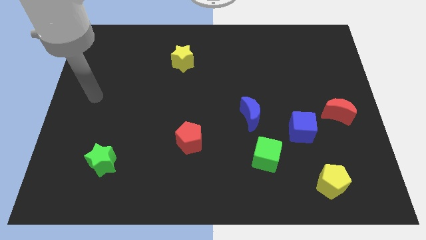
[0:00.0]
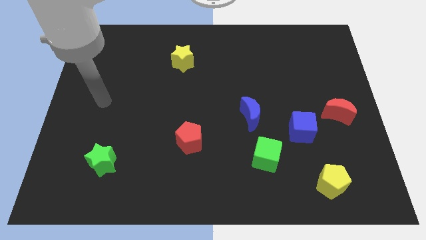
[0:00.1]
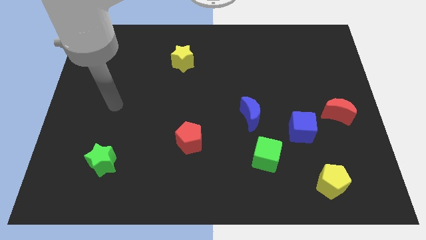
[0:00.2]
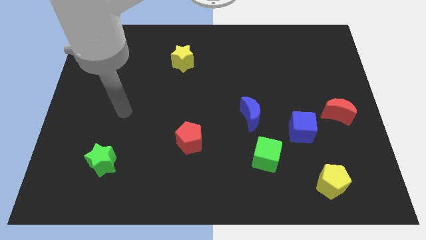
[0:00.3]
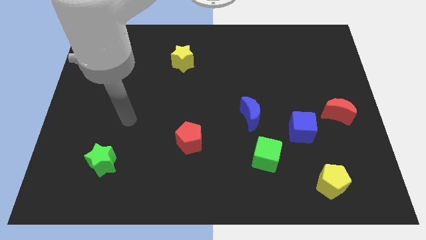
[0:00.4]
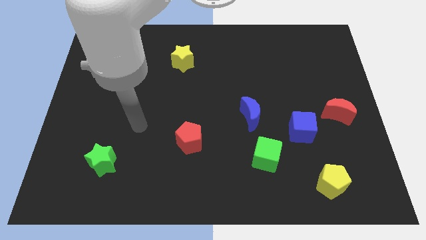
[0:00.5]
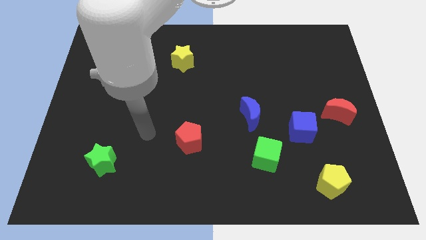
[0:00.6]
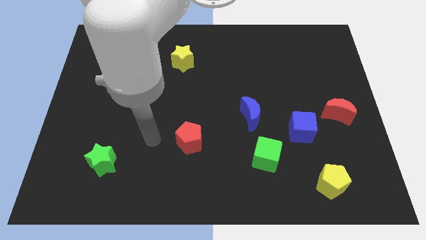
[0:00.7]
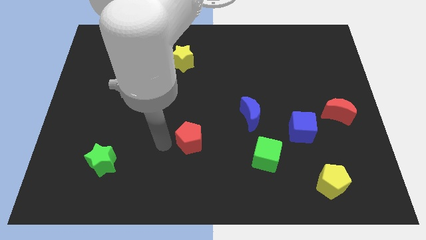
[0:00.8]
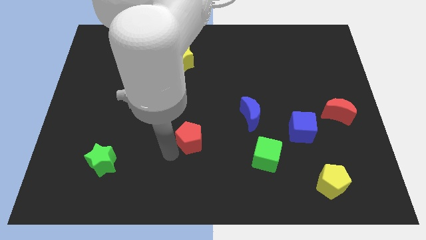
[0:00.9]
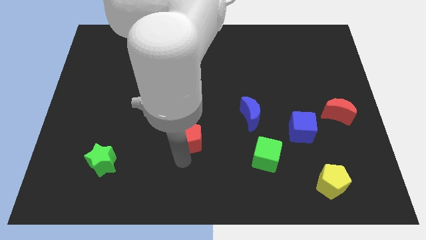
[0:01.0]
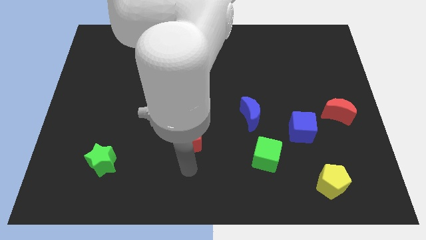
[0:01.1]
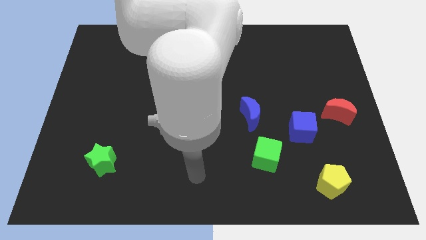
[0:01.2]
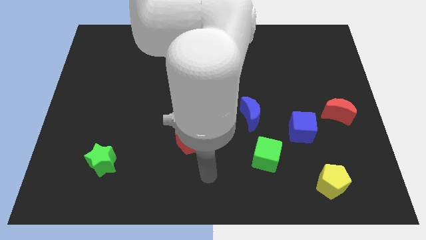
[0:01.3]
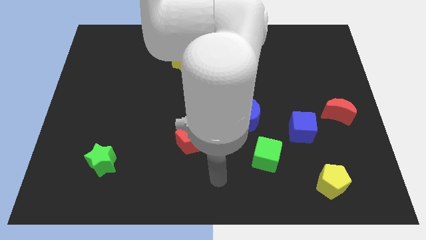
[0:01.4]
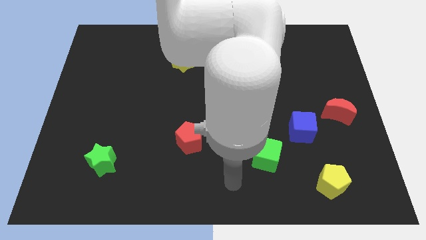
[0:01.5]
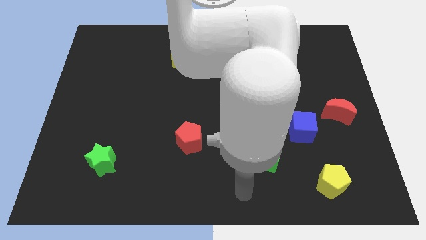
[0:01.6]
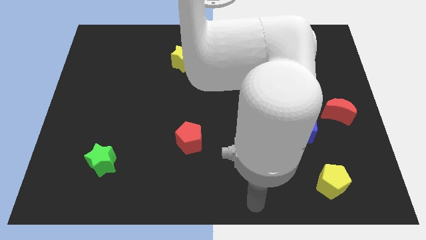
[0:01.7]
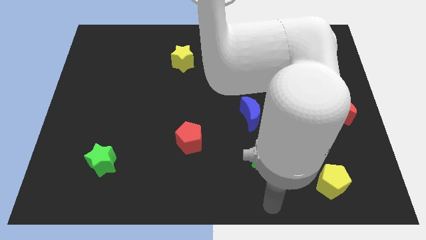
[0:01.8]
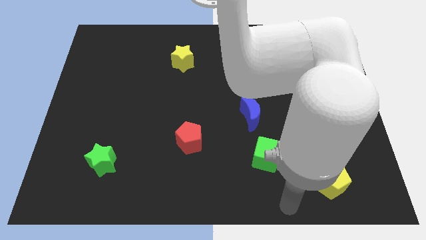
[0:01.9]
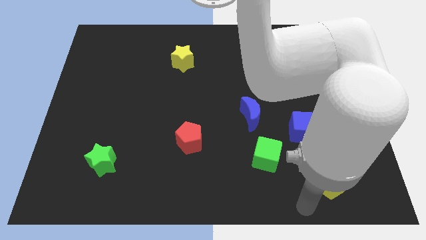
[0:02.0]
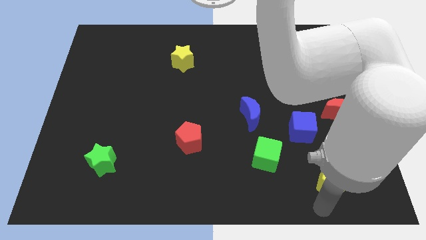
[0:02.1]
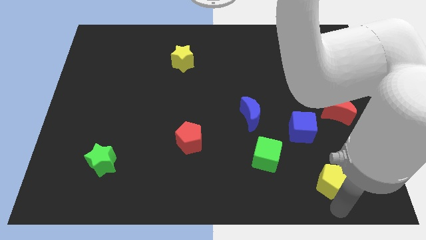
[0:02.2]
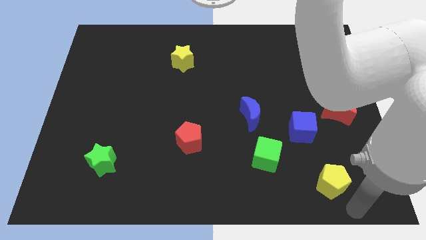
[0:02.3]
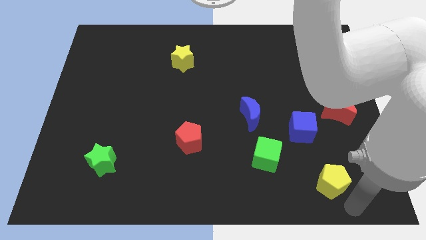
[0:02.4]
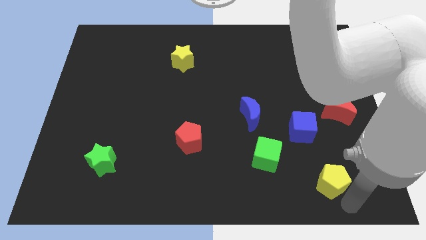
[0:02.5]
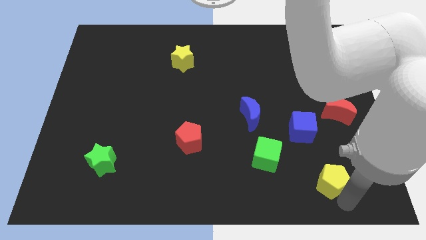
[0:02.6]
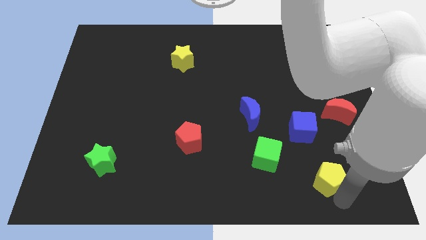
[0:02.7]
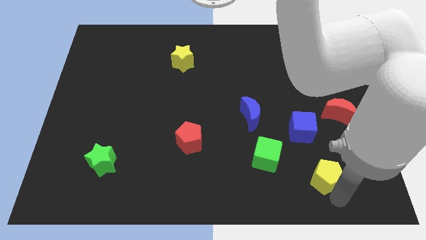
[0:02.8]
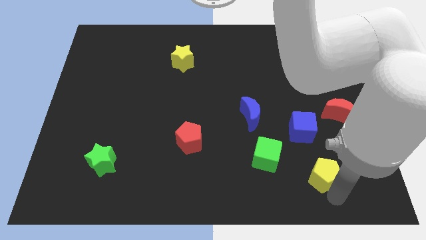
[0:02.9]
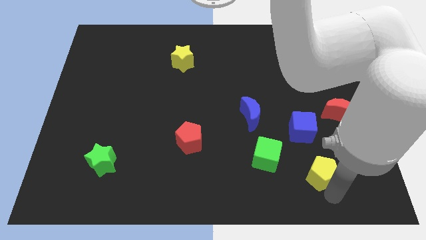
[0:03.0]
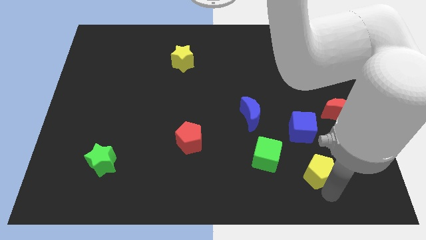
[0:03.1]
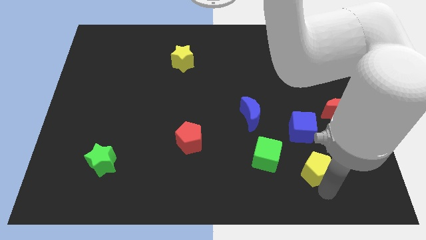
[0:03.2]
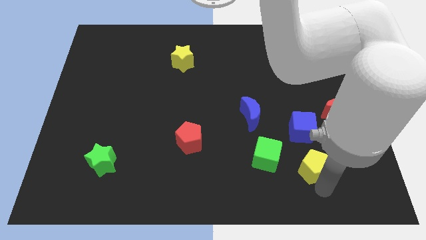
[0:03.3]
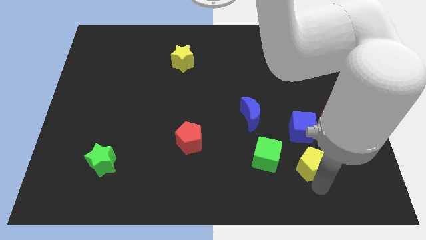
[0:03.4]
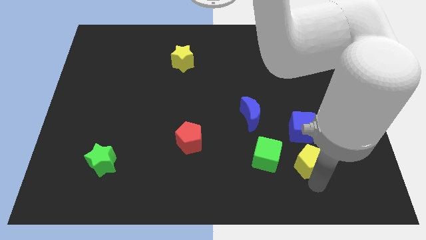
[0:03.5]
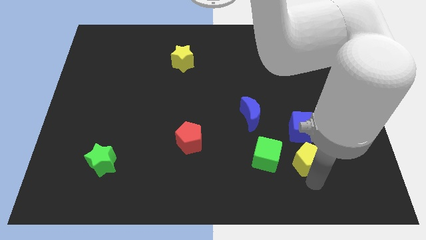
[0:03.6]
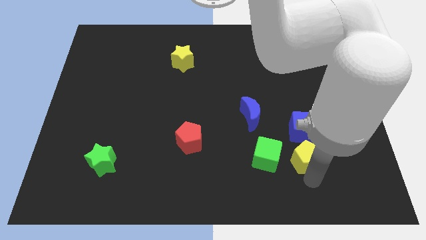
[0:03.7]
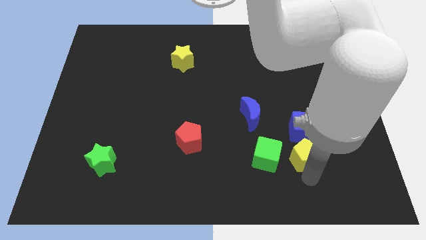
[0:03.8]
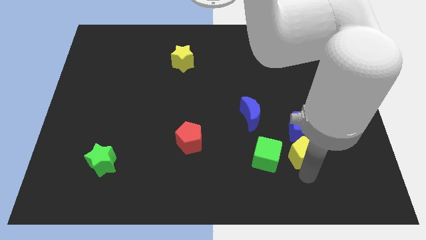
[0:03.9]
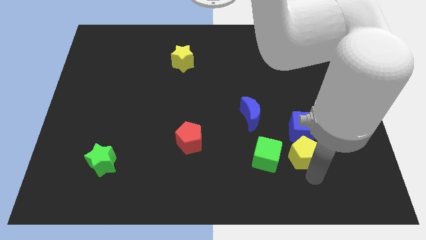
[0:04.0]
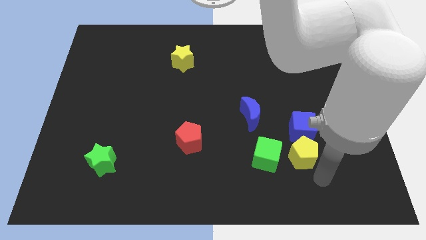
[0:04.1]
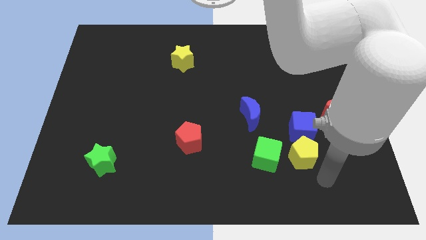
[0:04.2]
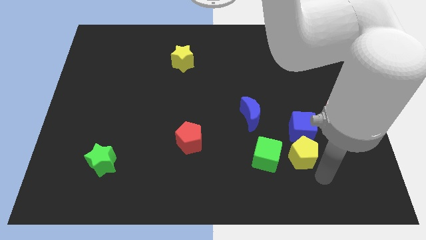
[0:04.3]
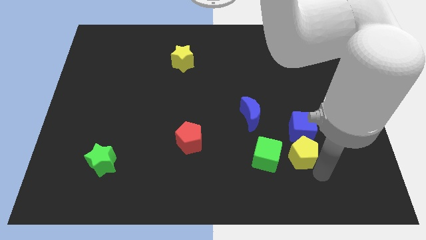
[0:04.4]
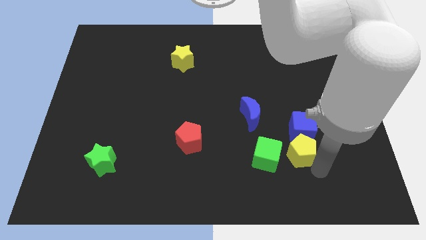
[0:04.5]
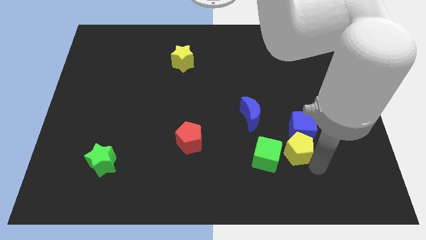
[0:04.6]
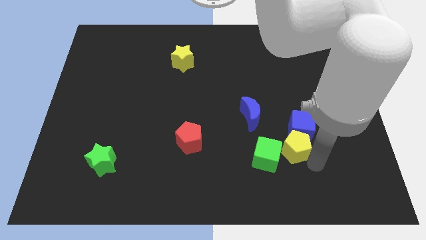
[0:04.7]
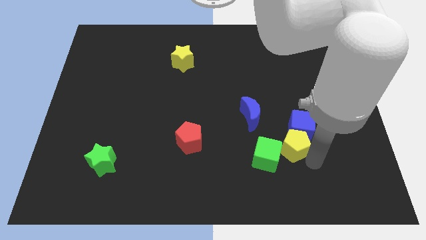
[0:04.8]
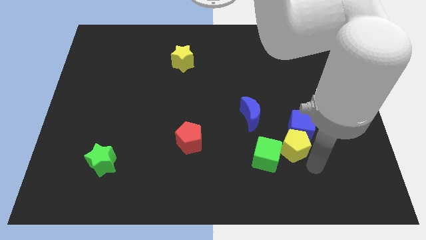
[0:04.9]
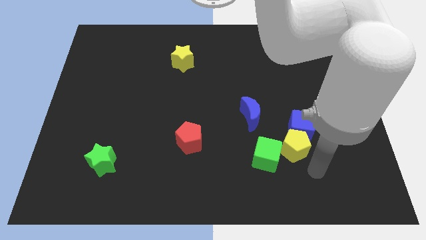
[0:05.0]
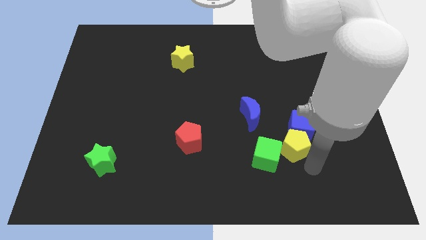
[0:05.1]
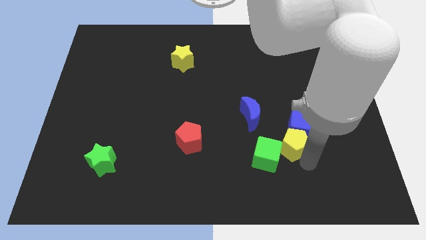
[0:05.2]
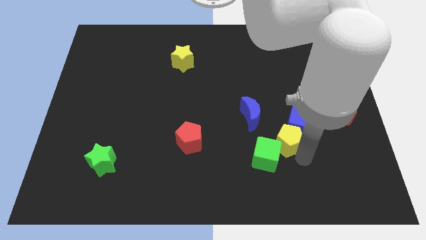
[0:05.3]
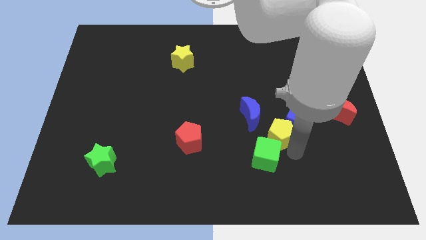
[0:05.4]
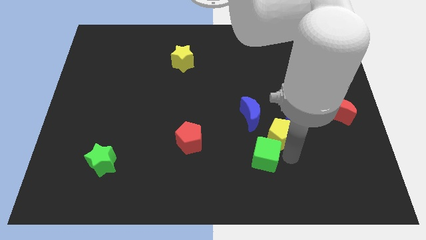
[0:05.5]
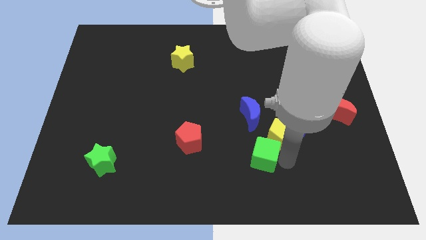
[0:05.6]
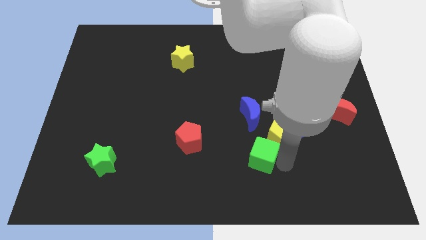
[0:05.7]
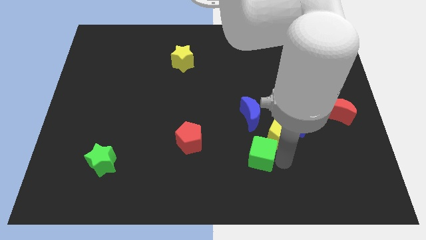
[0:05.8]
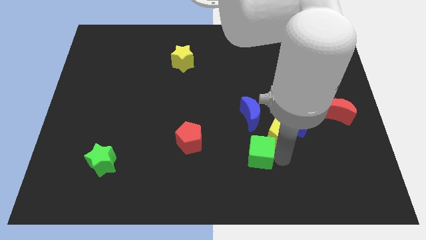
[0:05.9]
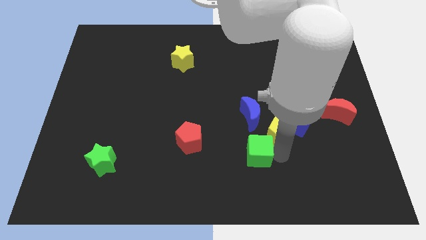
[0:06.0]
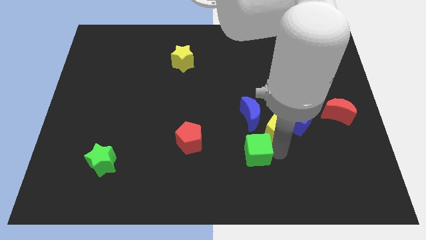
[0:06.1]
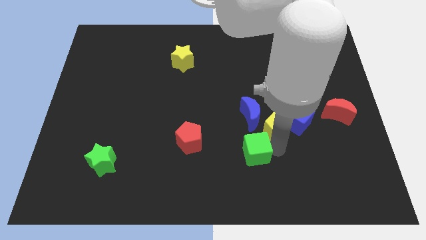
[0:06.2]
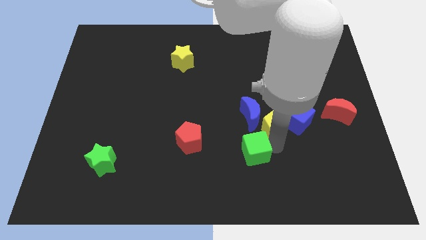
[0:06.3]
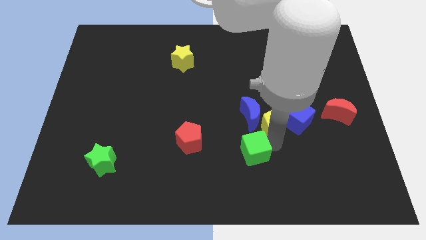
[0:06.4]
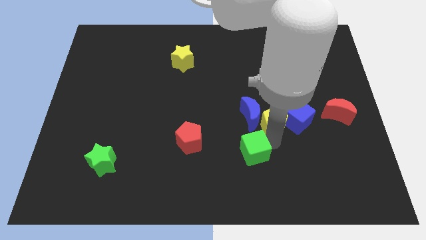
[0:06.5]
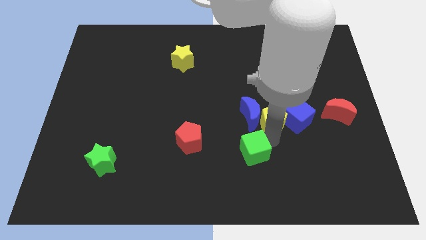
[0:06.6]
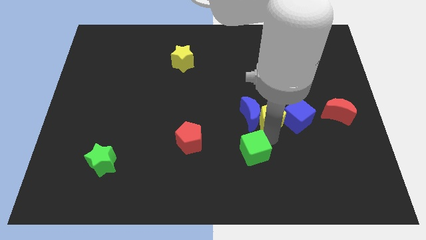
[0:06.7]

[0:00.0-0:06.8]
move the yellow pentagon to the top left side of the blue cube

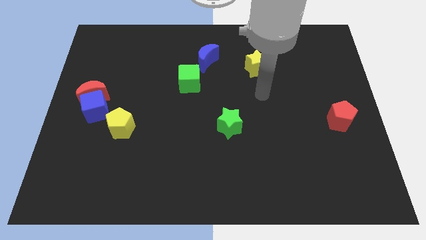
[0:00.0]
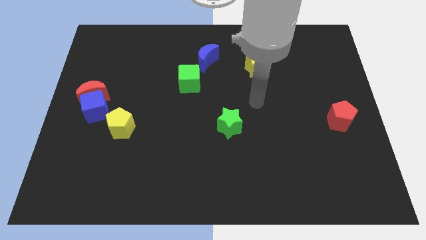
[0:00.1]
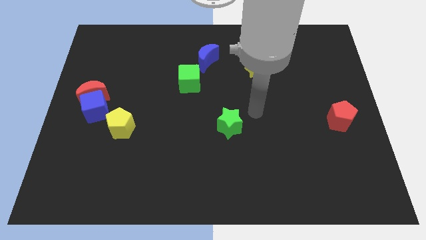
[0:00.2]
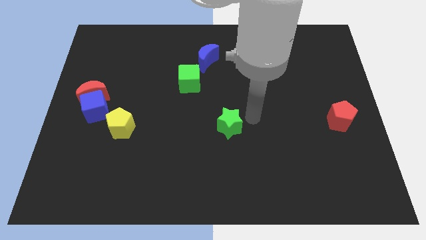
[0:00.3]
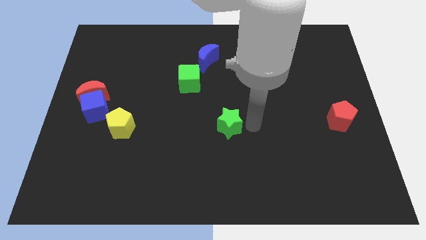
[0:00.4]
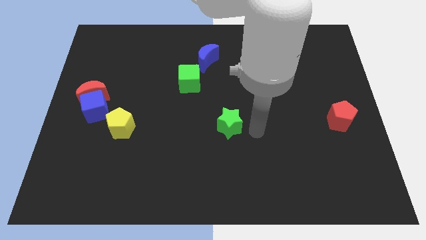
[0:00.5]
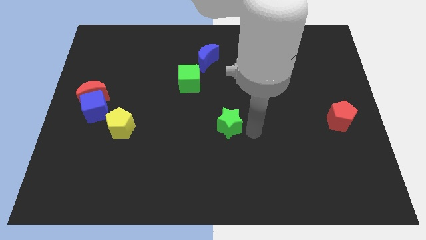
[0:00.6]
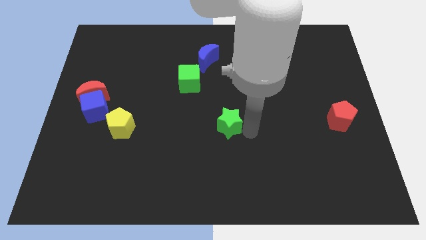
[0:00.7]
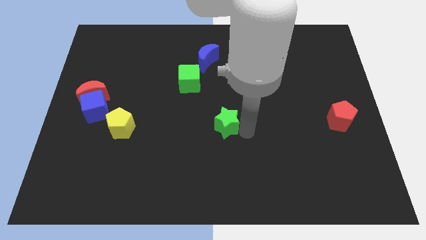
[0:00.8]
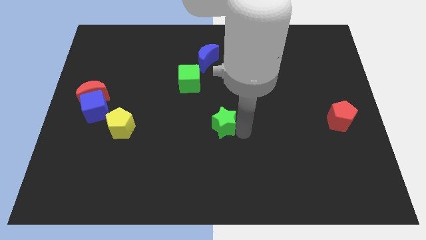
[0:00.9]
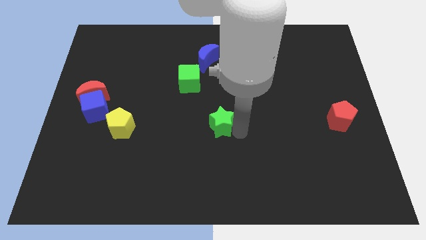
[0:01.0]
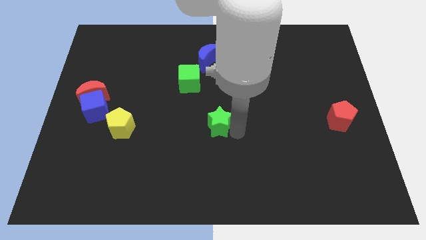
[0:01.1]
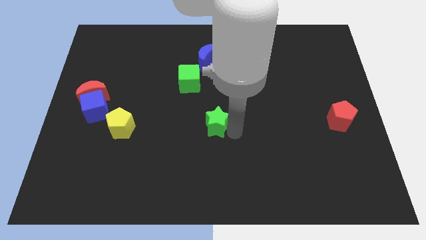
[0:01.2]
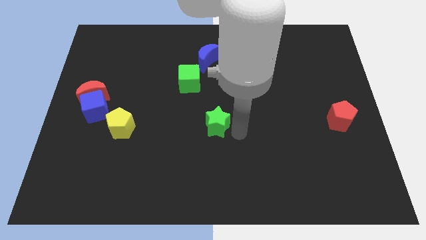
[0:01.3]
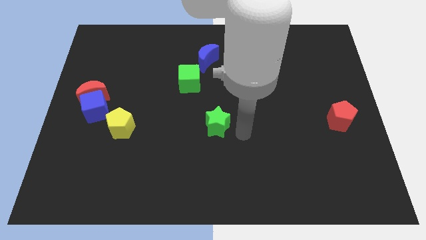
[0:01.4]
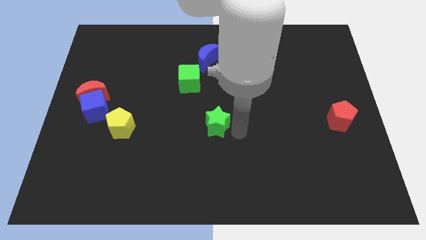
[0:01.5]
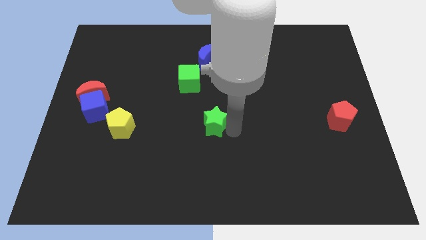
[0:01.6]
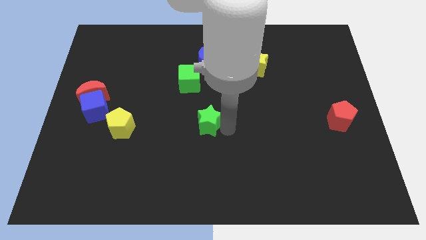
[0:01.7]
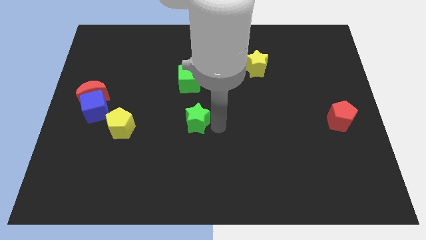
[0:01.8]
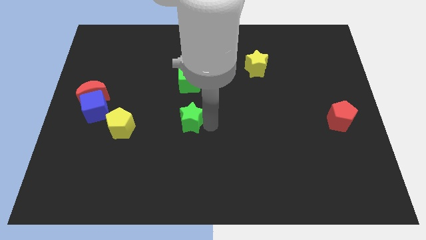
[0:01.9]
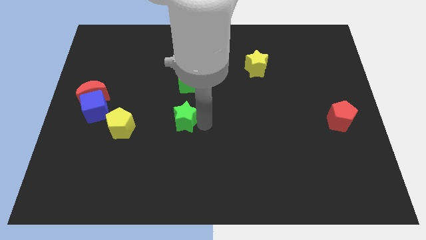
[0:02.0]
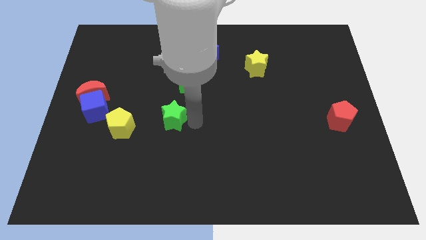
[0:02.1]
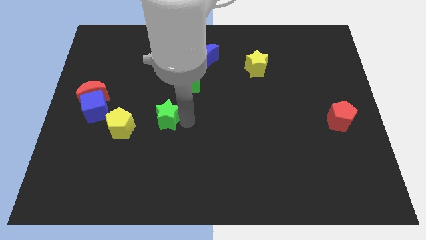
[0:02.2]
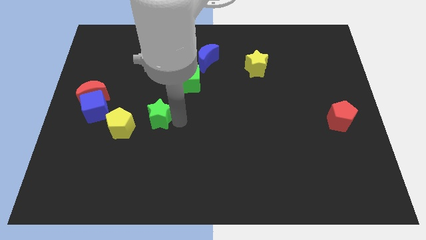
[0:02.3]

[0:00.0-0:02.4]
slide the green star to the top right of the yellow pentagon
